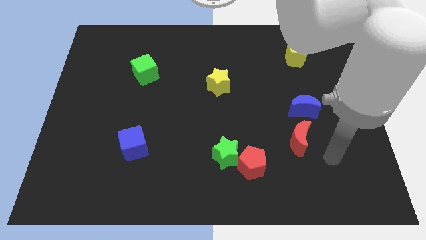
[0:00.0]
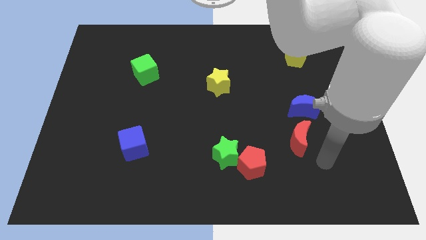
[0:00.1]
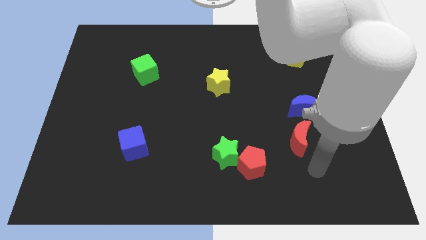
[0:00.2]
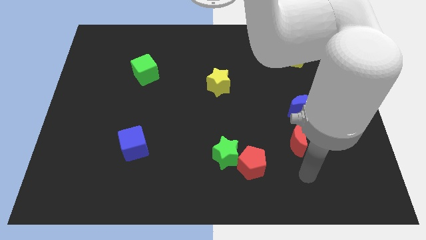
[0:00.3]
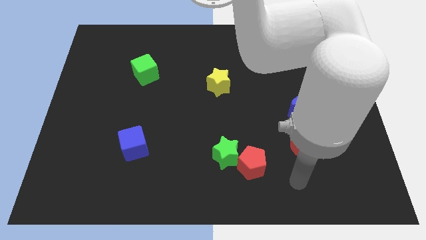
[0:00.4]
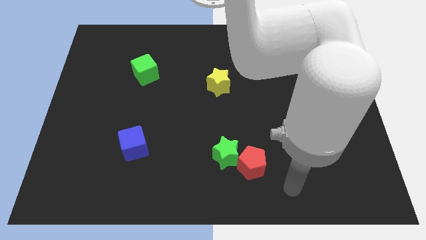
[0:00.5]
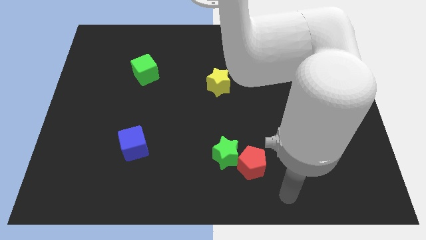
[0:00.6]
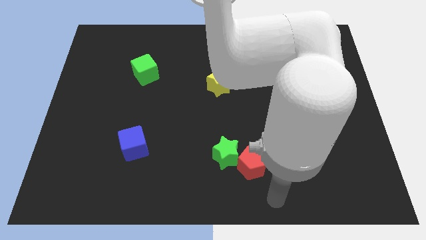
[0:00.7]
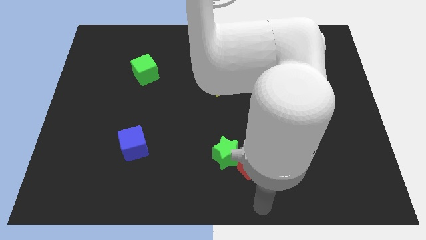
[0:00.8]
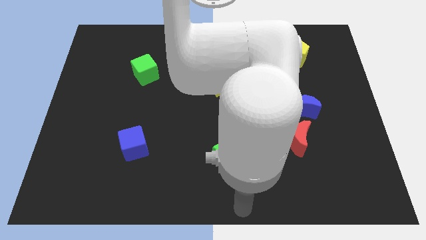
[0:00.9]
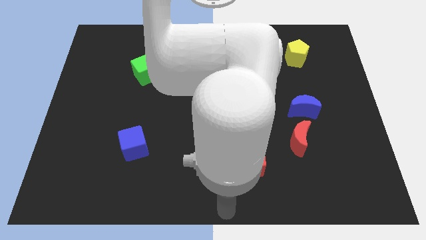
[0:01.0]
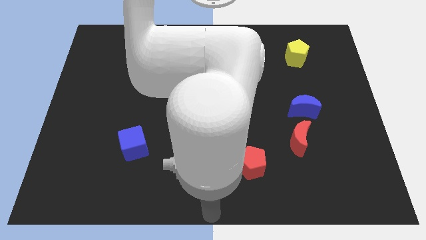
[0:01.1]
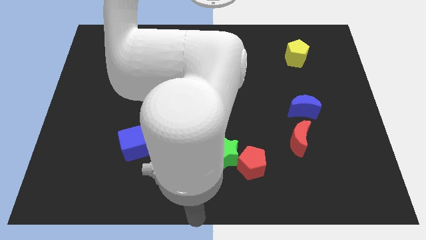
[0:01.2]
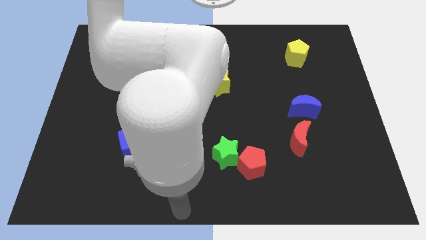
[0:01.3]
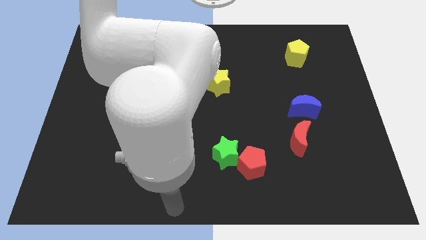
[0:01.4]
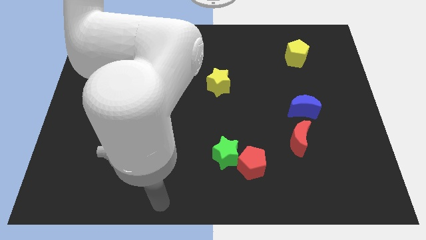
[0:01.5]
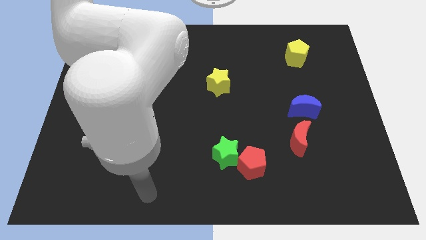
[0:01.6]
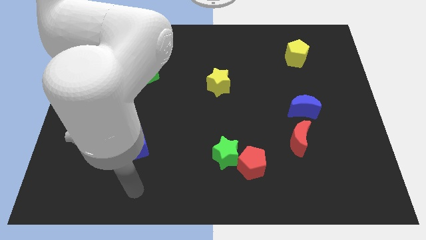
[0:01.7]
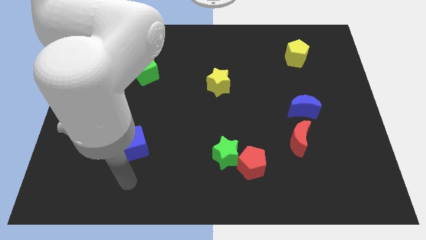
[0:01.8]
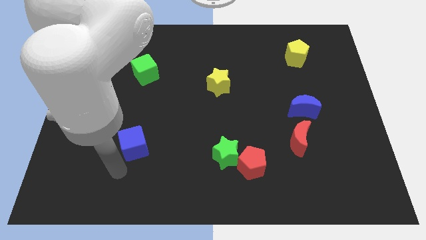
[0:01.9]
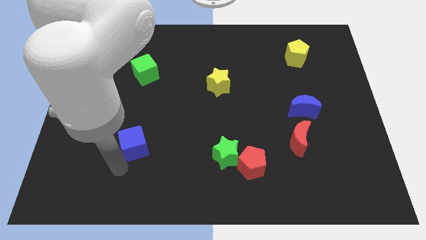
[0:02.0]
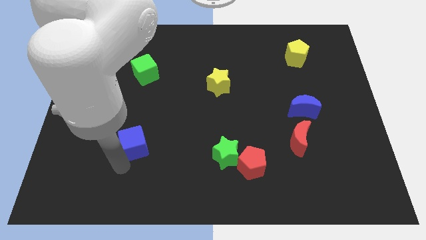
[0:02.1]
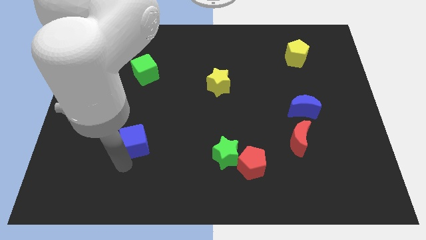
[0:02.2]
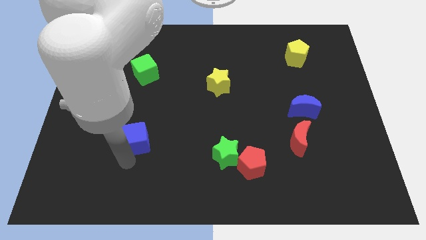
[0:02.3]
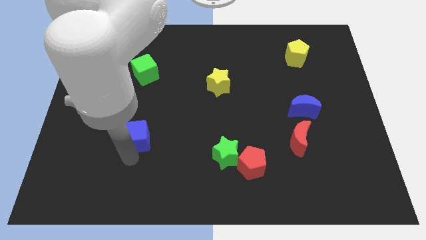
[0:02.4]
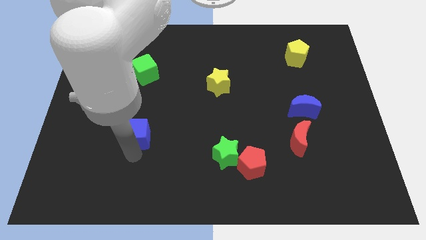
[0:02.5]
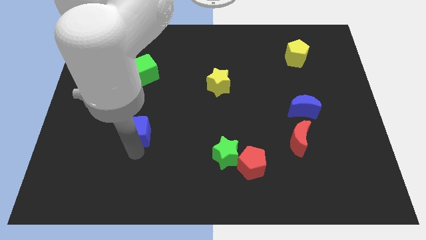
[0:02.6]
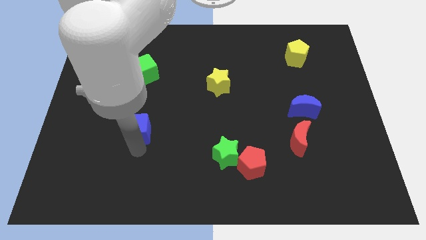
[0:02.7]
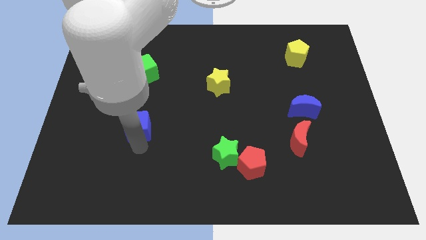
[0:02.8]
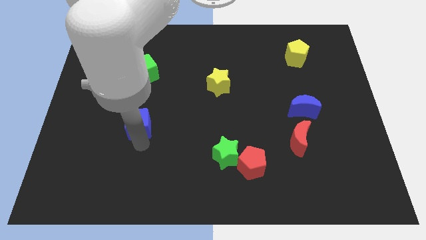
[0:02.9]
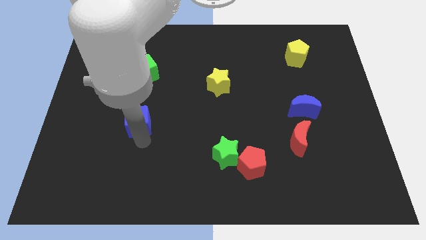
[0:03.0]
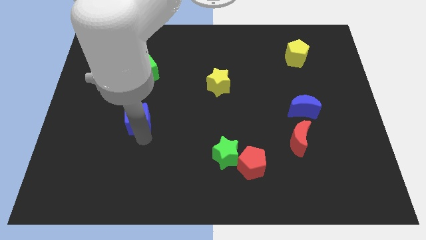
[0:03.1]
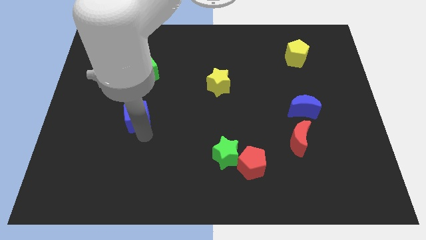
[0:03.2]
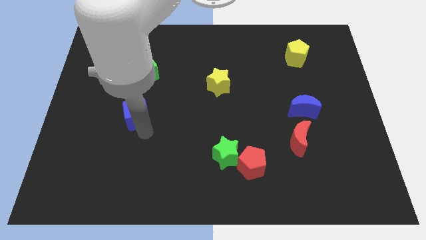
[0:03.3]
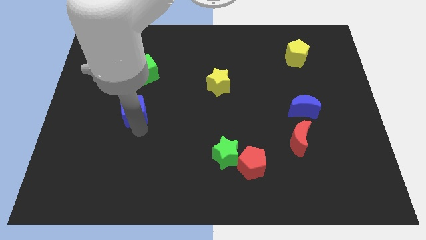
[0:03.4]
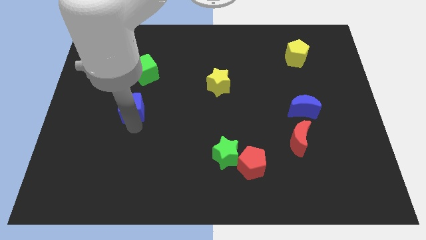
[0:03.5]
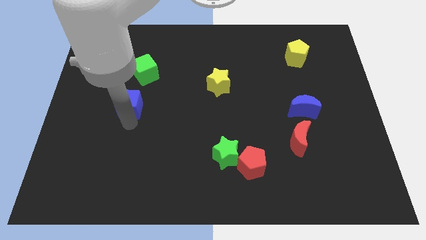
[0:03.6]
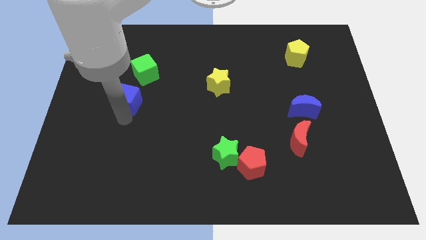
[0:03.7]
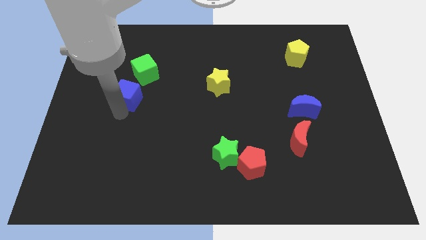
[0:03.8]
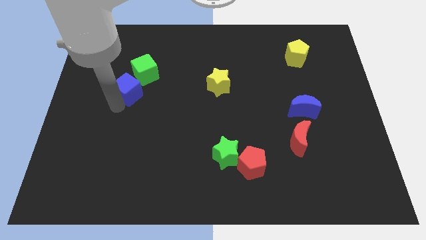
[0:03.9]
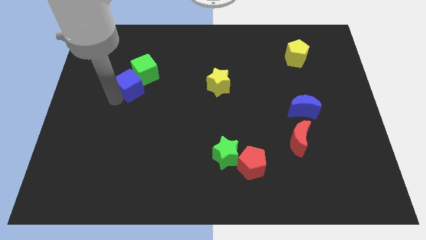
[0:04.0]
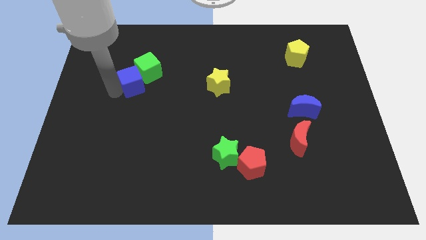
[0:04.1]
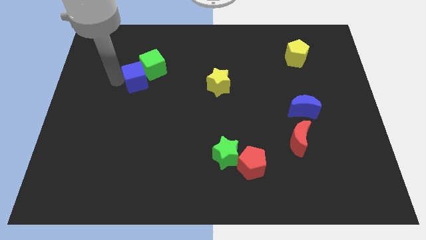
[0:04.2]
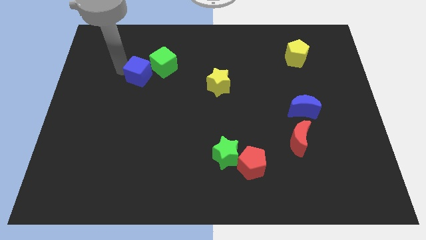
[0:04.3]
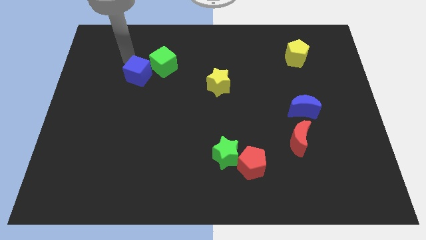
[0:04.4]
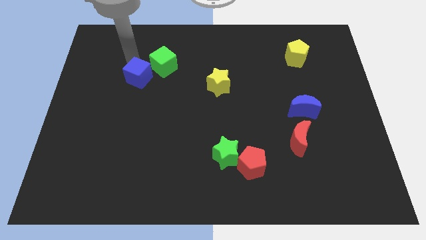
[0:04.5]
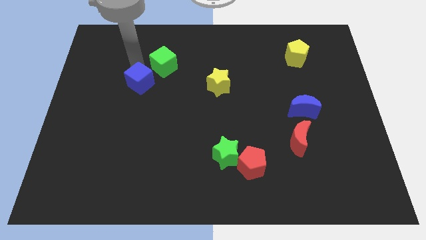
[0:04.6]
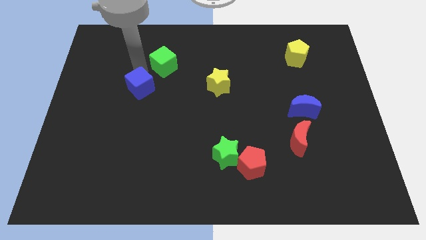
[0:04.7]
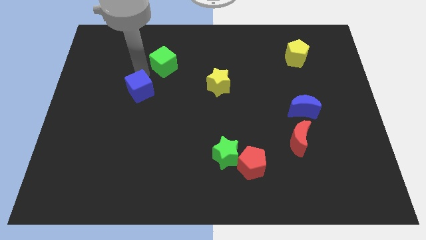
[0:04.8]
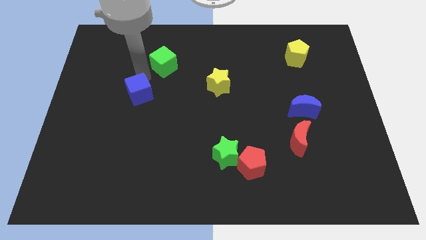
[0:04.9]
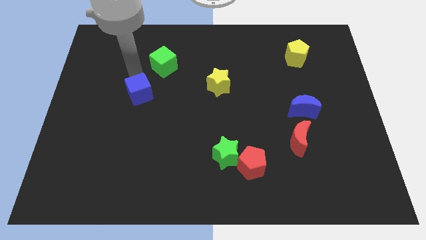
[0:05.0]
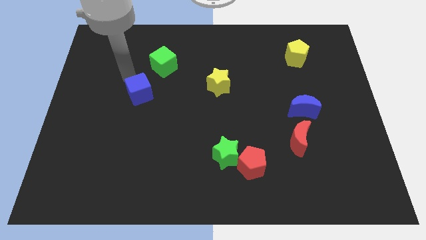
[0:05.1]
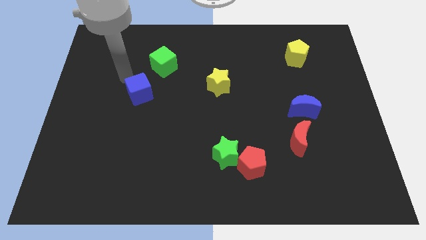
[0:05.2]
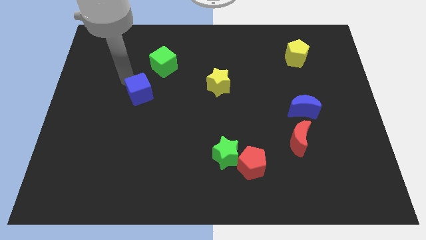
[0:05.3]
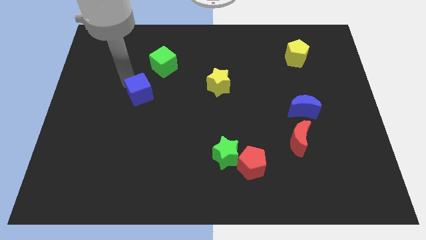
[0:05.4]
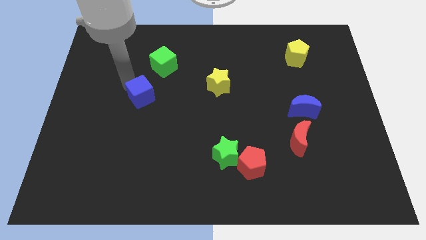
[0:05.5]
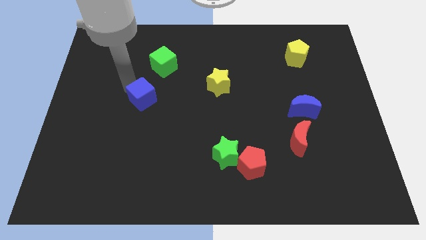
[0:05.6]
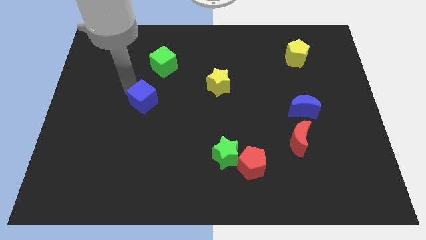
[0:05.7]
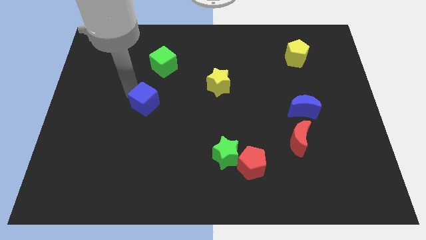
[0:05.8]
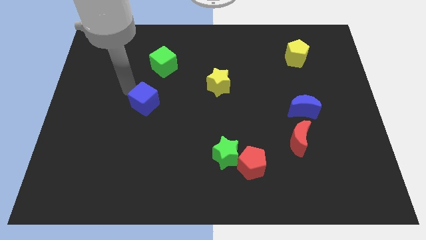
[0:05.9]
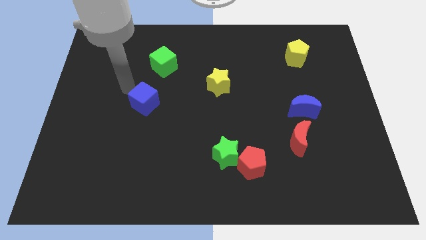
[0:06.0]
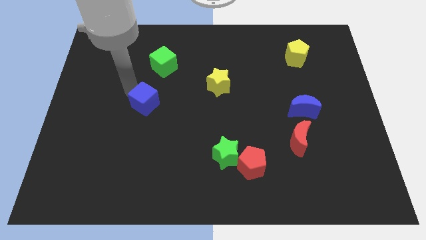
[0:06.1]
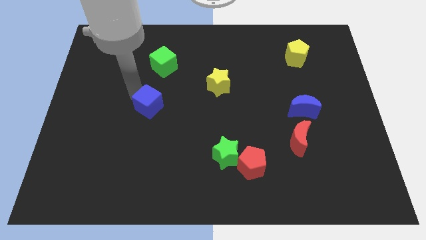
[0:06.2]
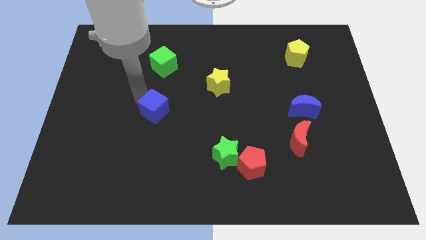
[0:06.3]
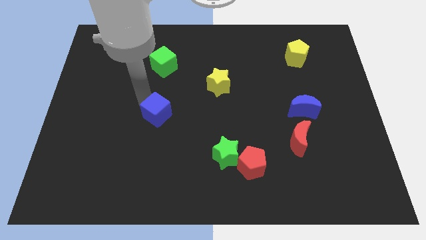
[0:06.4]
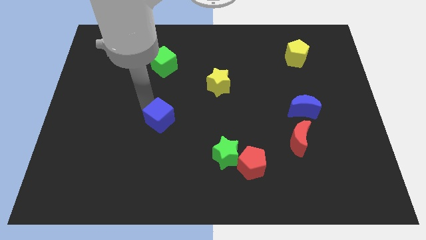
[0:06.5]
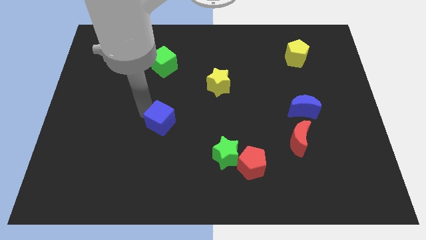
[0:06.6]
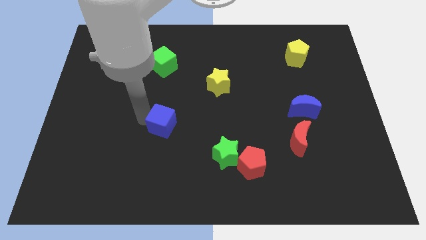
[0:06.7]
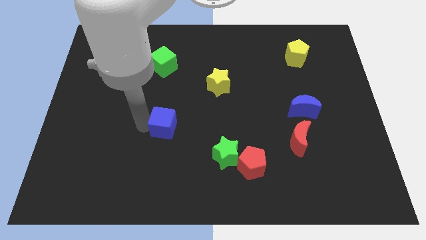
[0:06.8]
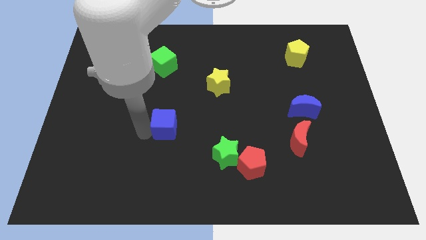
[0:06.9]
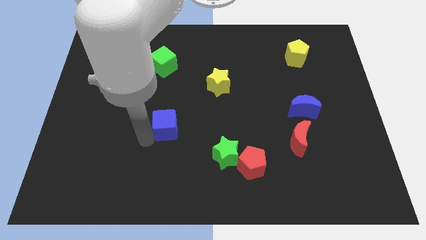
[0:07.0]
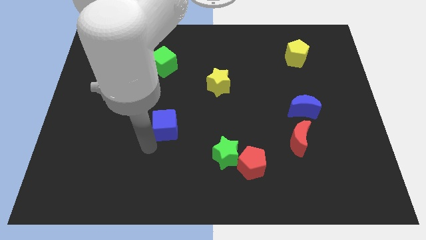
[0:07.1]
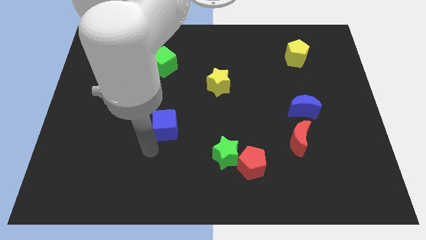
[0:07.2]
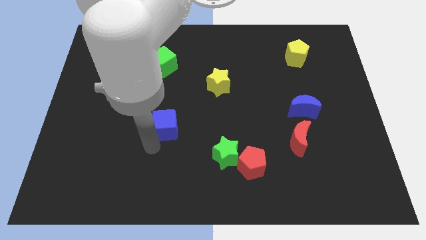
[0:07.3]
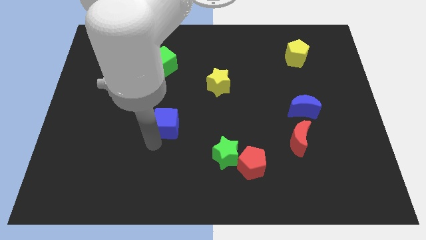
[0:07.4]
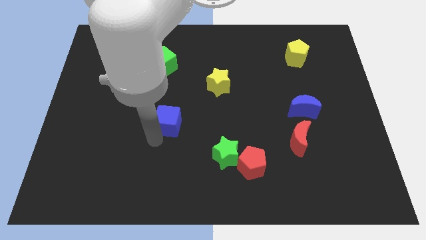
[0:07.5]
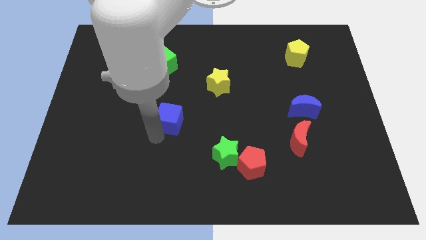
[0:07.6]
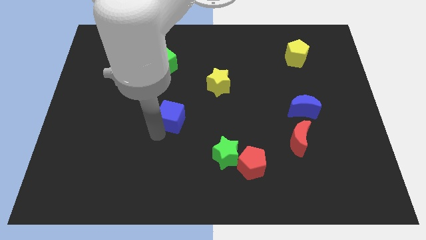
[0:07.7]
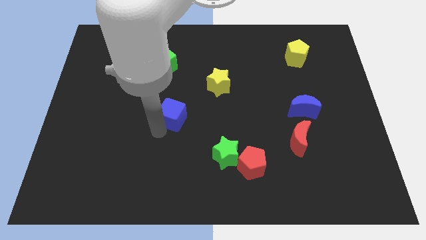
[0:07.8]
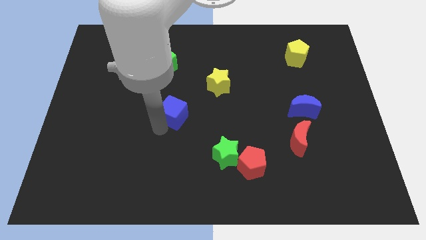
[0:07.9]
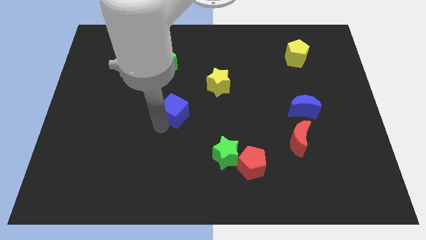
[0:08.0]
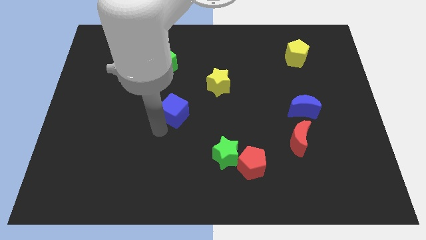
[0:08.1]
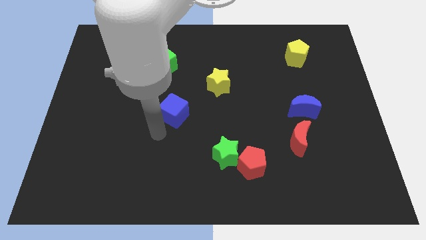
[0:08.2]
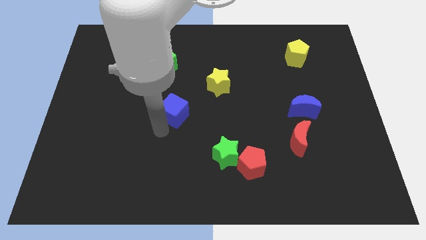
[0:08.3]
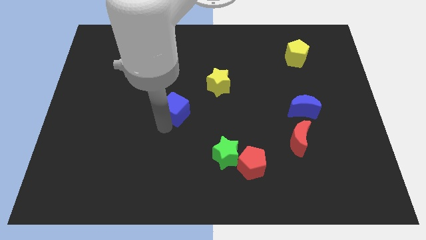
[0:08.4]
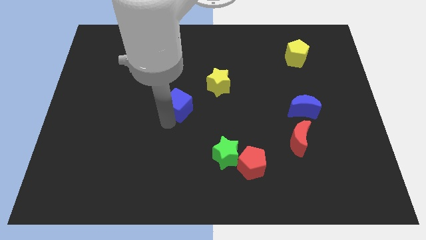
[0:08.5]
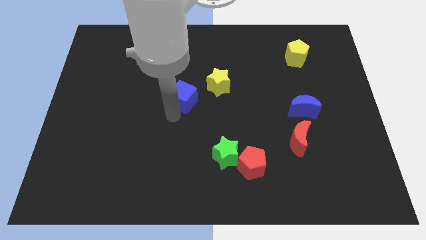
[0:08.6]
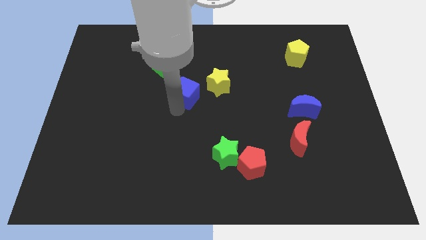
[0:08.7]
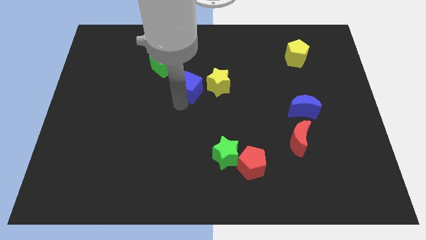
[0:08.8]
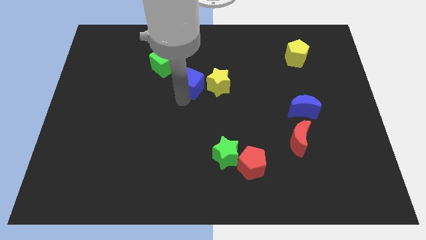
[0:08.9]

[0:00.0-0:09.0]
move the blue cube upwards and to the right
